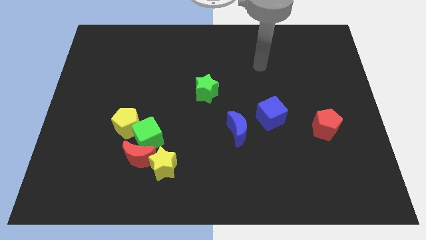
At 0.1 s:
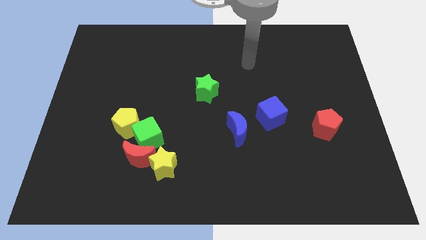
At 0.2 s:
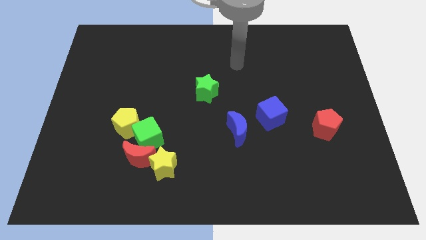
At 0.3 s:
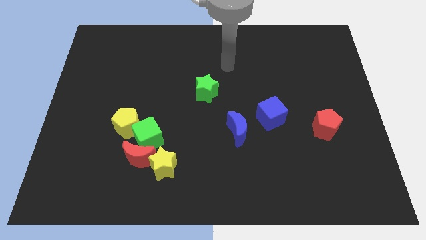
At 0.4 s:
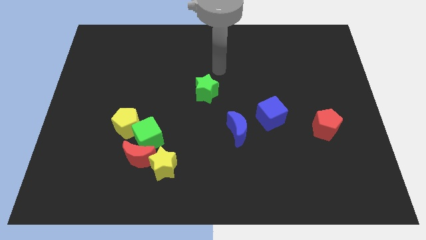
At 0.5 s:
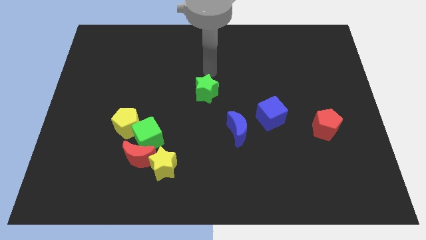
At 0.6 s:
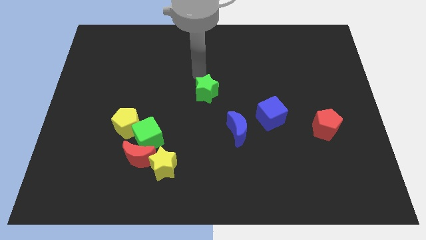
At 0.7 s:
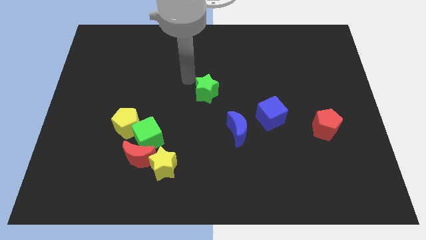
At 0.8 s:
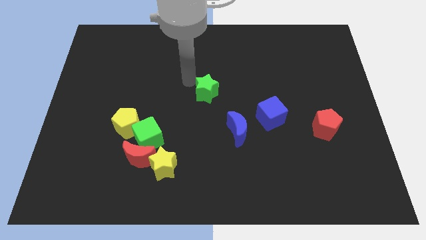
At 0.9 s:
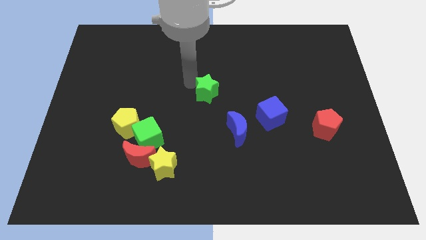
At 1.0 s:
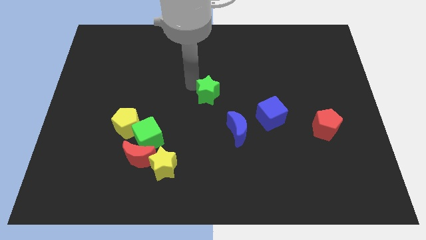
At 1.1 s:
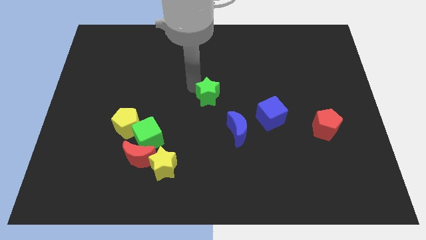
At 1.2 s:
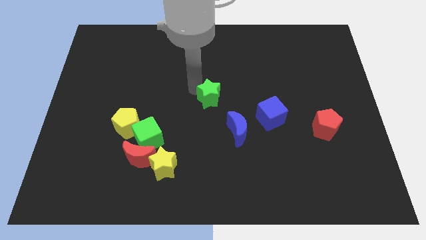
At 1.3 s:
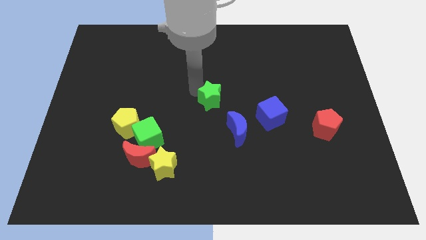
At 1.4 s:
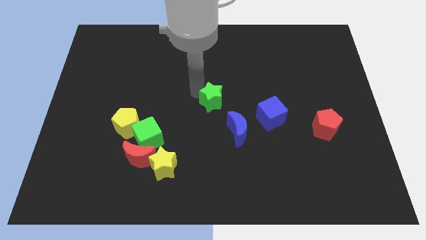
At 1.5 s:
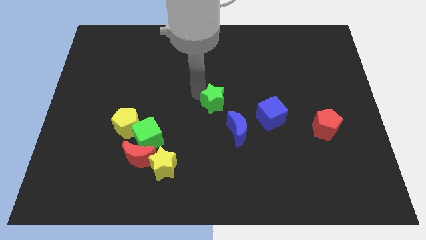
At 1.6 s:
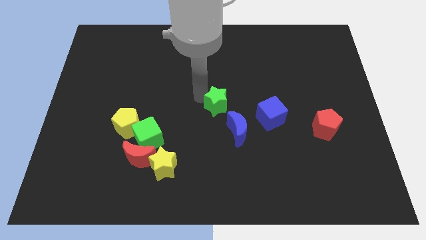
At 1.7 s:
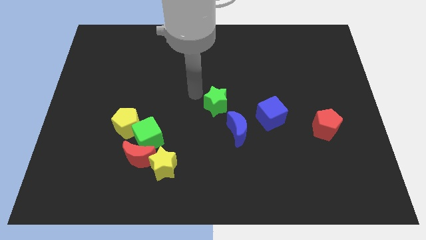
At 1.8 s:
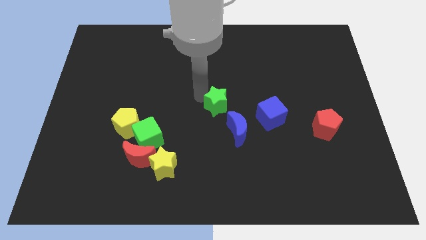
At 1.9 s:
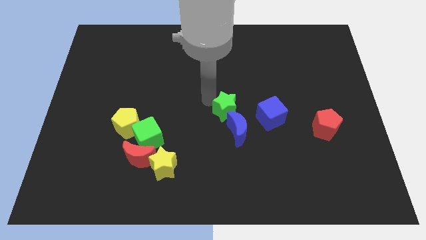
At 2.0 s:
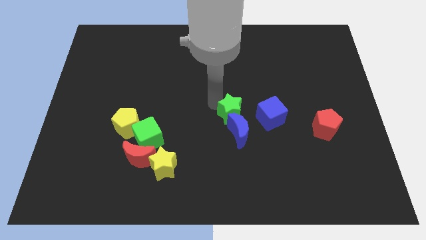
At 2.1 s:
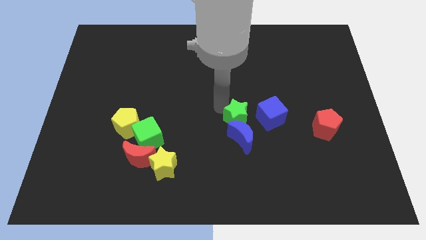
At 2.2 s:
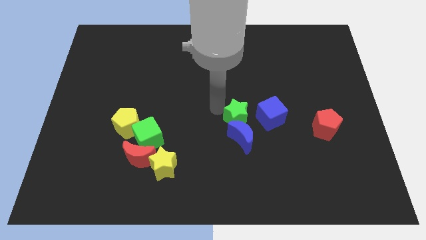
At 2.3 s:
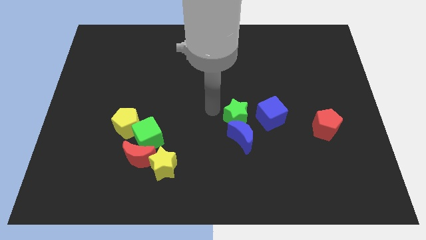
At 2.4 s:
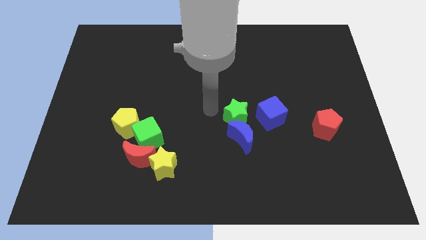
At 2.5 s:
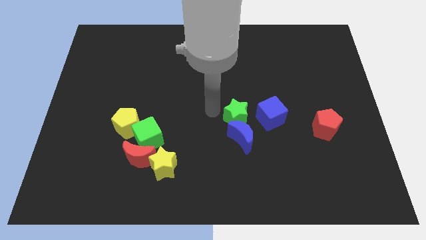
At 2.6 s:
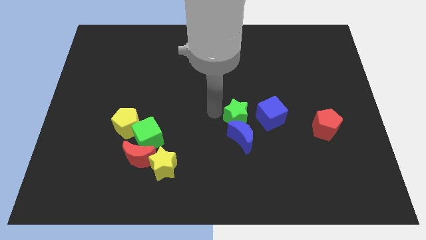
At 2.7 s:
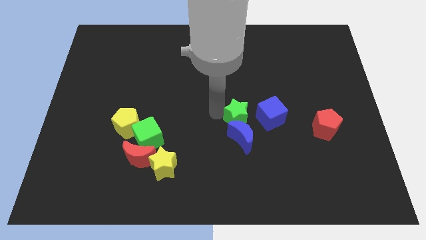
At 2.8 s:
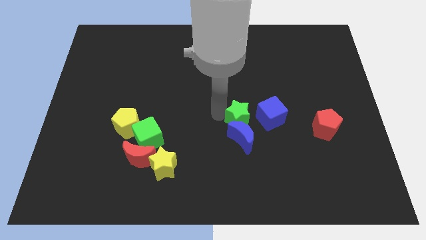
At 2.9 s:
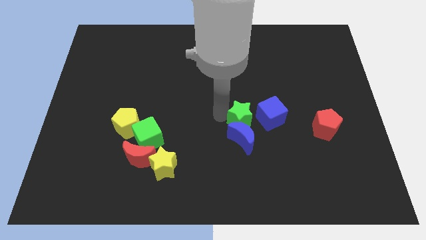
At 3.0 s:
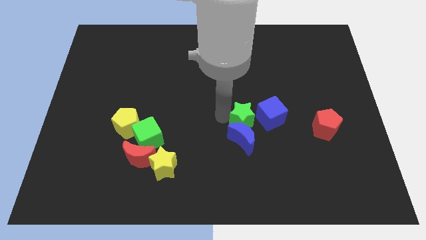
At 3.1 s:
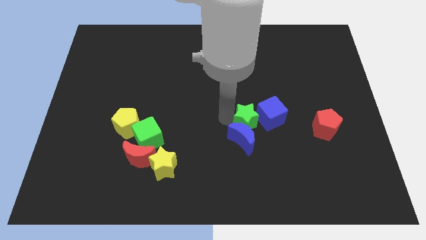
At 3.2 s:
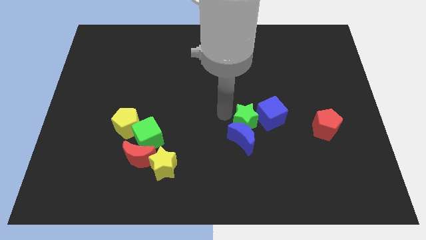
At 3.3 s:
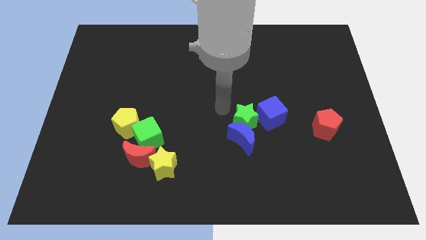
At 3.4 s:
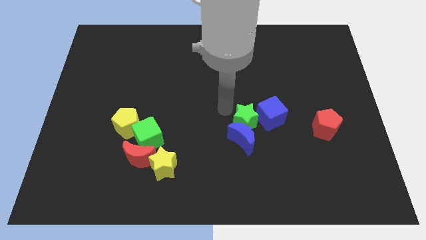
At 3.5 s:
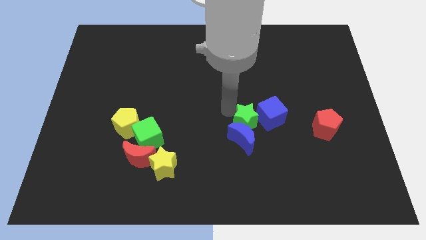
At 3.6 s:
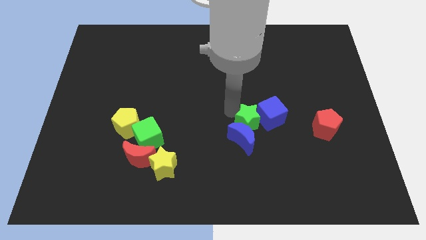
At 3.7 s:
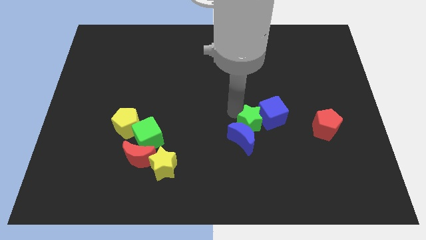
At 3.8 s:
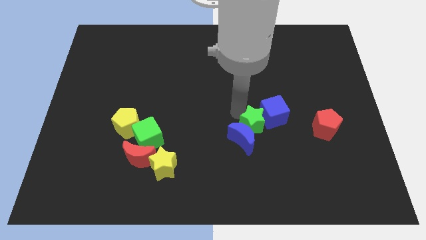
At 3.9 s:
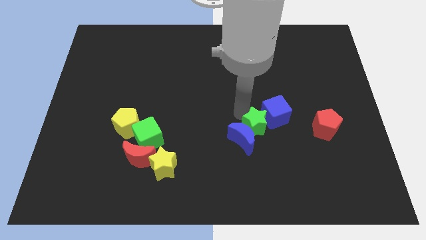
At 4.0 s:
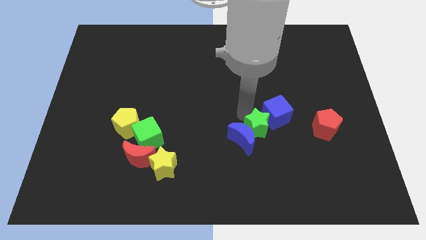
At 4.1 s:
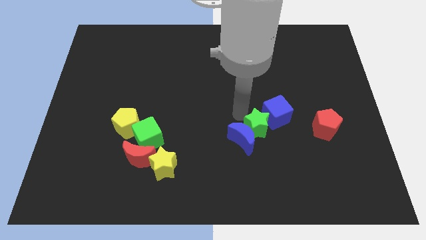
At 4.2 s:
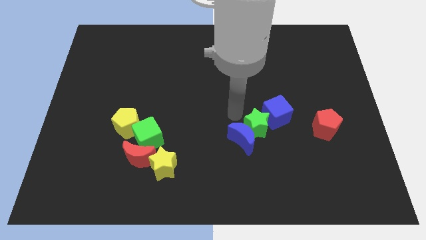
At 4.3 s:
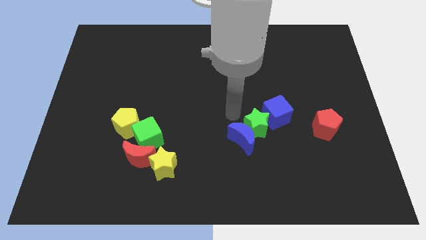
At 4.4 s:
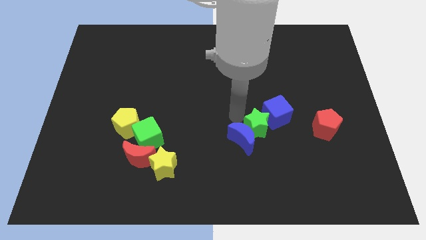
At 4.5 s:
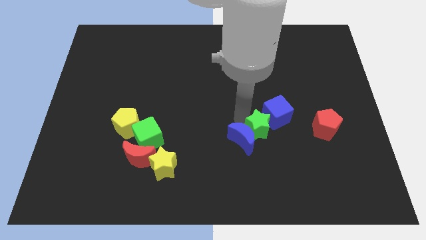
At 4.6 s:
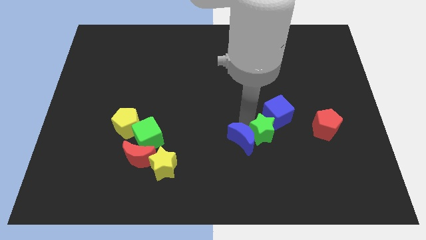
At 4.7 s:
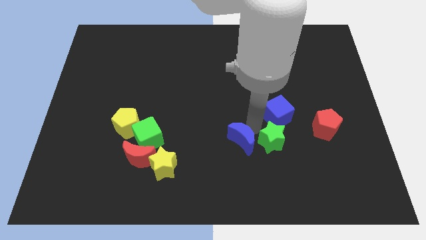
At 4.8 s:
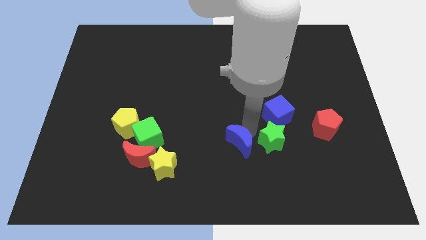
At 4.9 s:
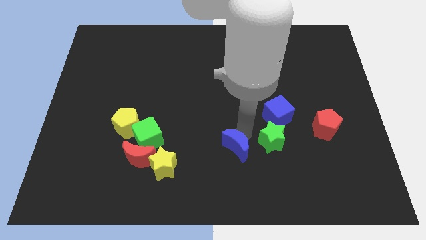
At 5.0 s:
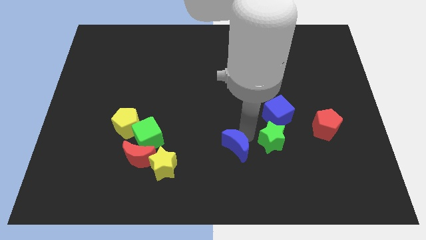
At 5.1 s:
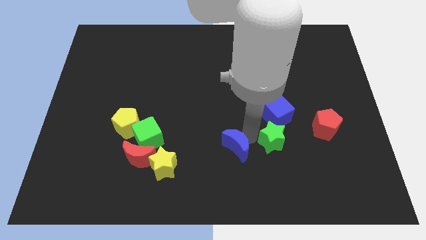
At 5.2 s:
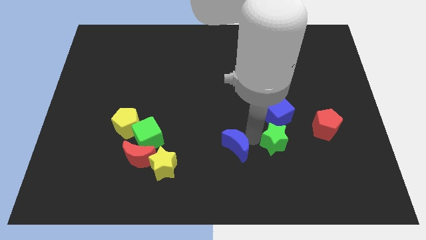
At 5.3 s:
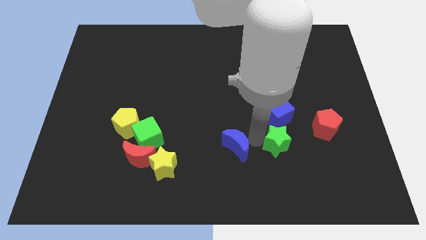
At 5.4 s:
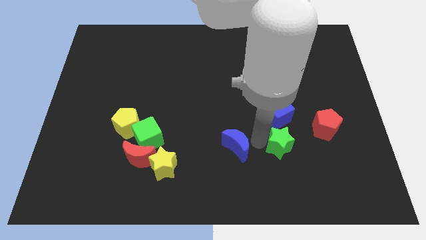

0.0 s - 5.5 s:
put the green star to the bottom left of the red pentagon

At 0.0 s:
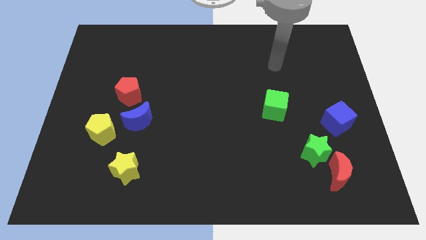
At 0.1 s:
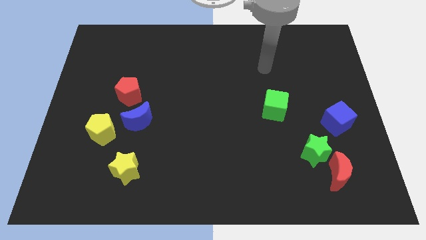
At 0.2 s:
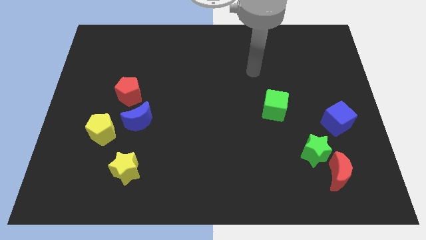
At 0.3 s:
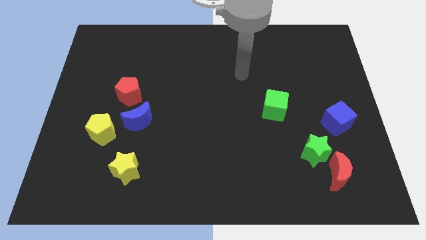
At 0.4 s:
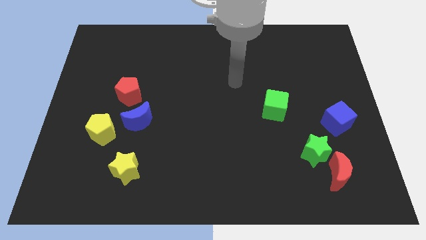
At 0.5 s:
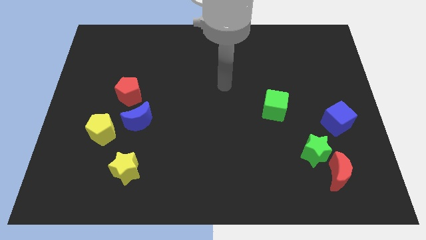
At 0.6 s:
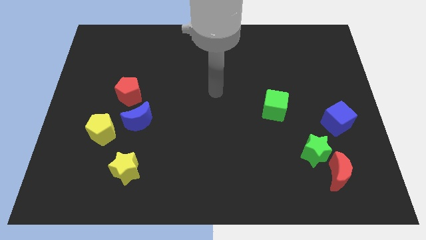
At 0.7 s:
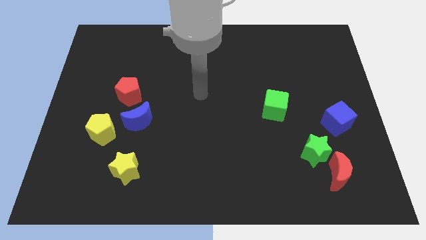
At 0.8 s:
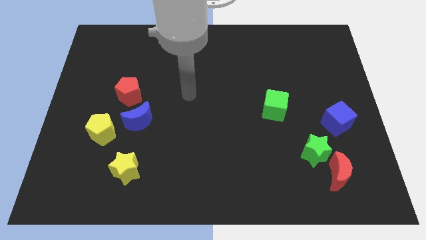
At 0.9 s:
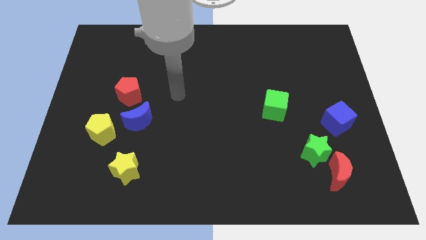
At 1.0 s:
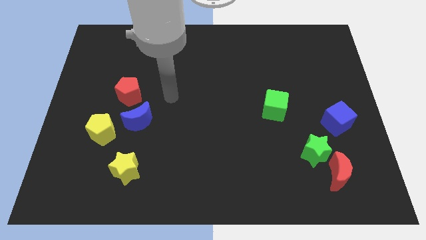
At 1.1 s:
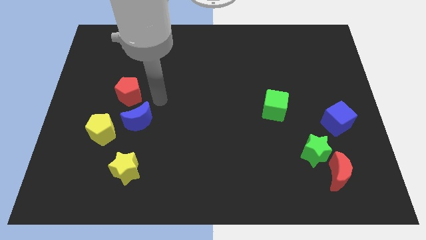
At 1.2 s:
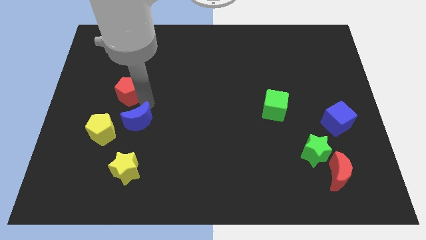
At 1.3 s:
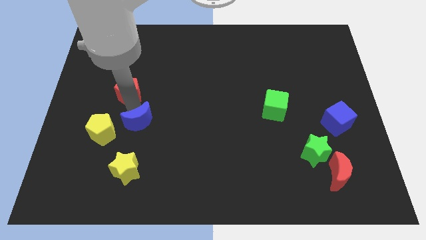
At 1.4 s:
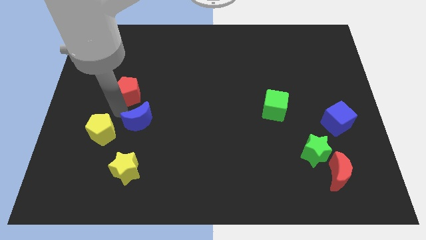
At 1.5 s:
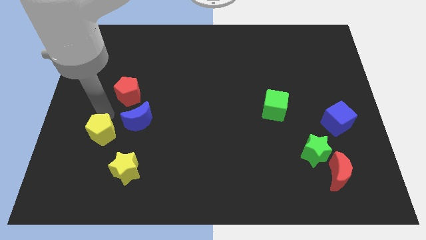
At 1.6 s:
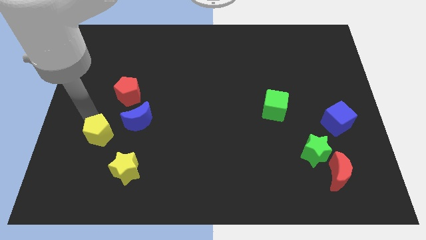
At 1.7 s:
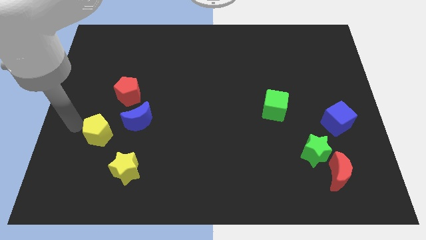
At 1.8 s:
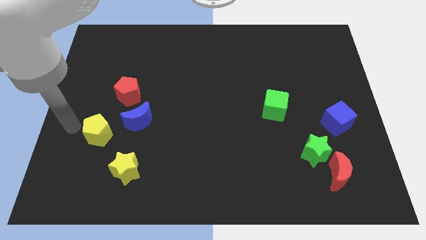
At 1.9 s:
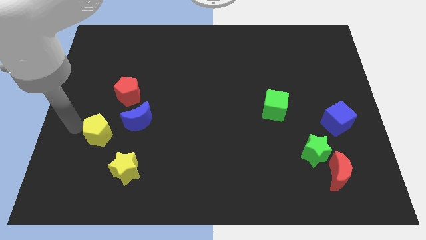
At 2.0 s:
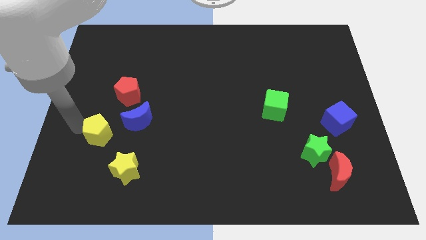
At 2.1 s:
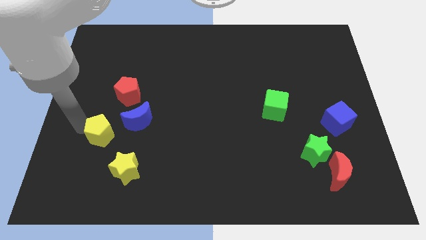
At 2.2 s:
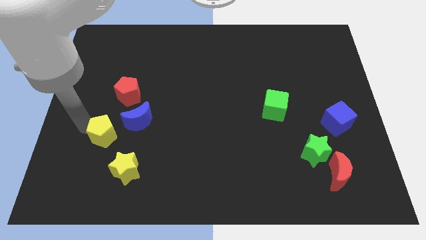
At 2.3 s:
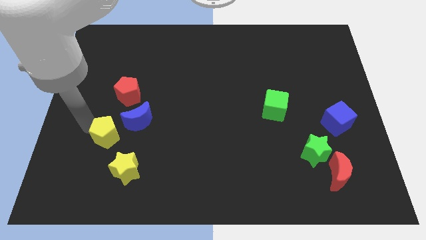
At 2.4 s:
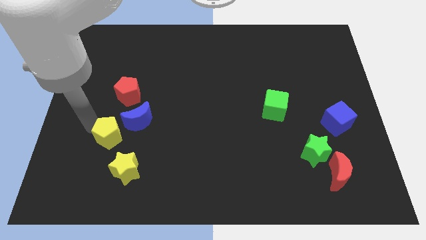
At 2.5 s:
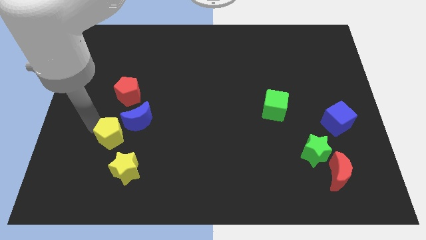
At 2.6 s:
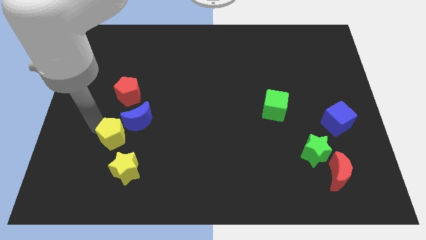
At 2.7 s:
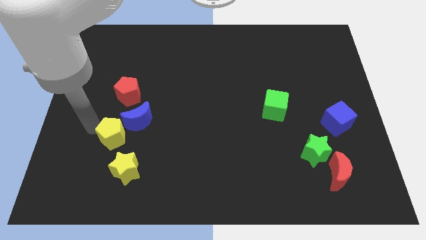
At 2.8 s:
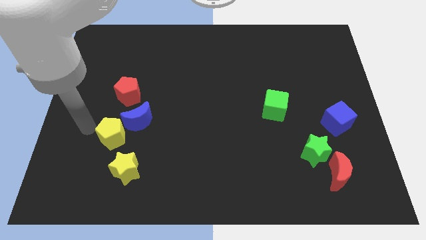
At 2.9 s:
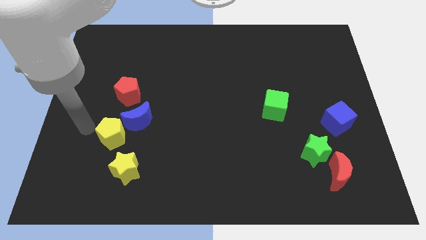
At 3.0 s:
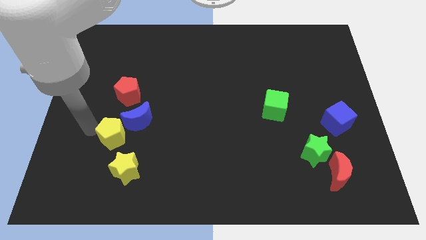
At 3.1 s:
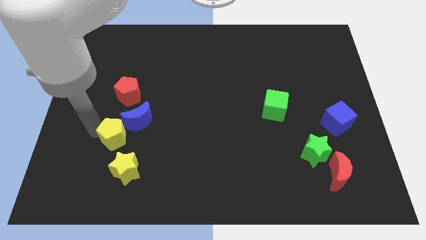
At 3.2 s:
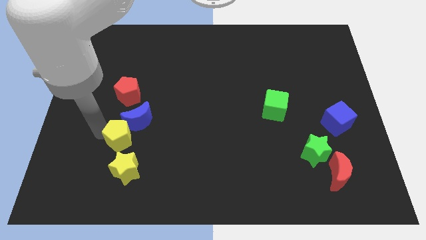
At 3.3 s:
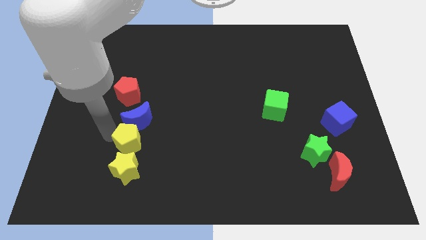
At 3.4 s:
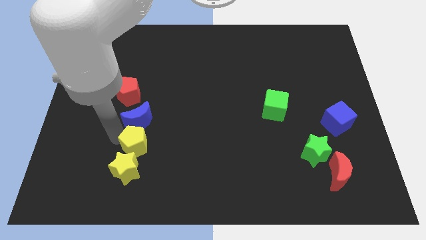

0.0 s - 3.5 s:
slide the yellow pentagon diagonally up and to the right of the yellow star
